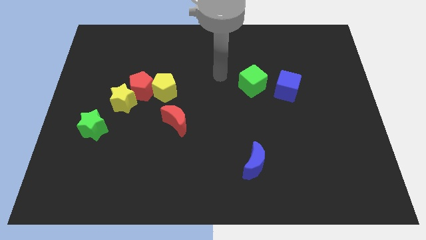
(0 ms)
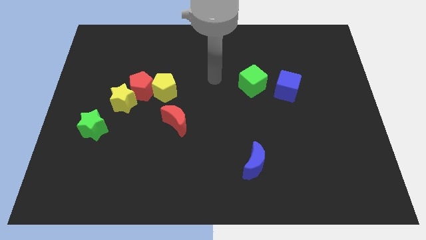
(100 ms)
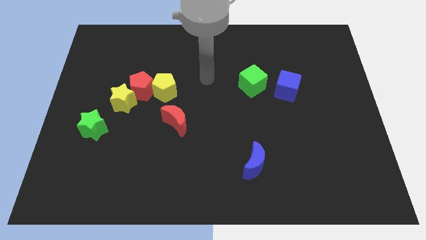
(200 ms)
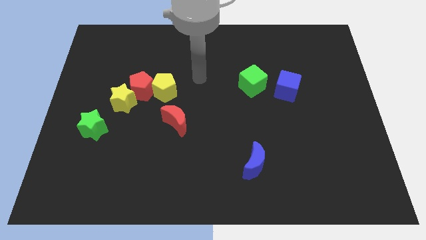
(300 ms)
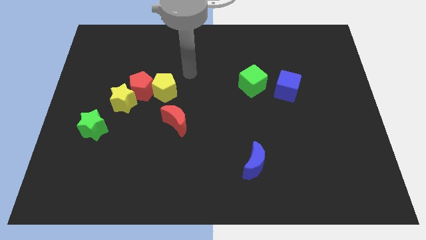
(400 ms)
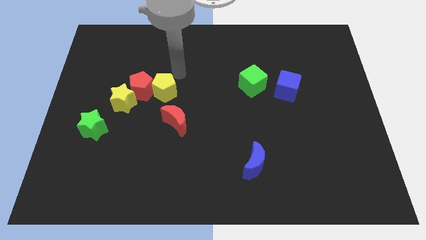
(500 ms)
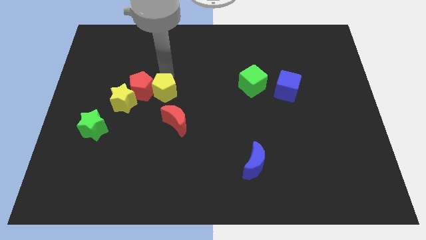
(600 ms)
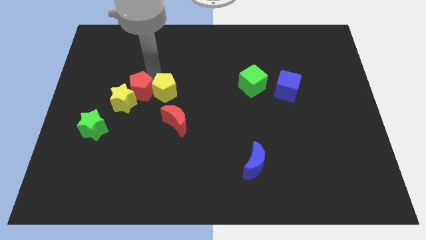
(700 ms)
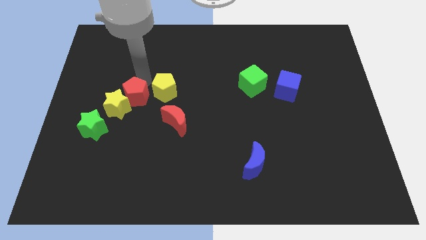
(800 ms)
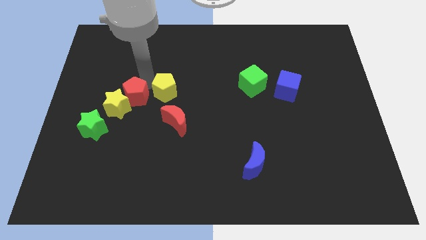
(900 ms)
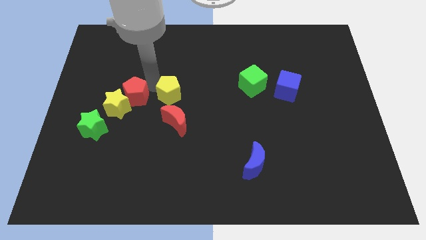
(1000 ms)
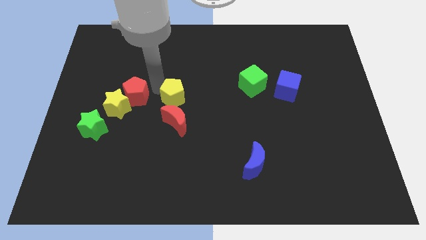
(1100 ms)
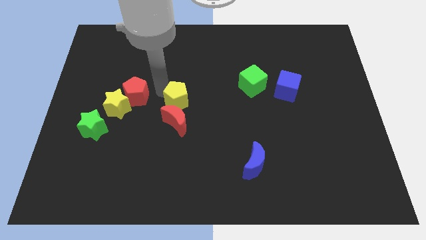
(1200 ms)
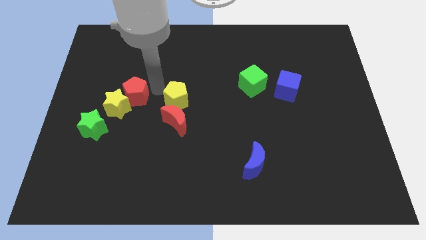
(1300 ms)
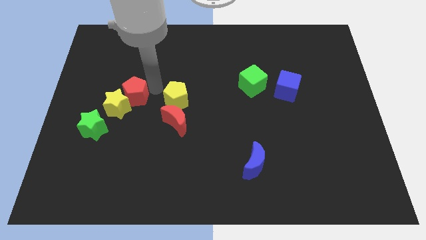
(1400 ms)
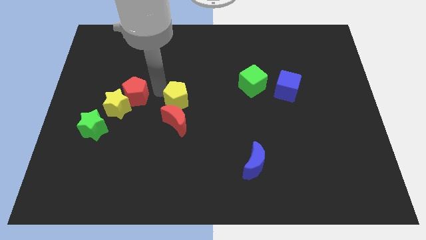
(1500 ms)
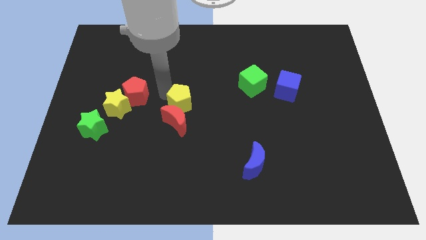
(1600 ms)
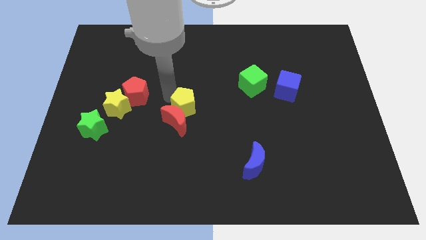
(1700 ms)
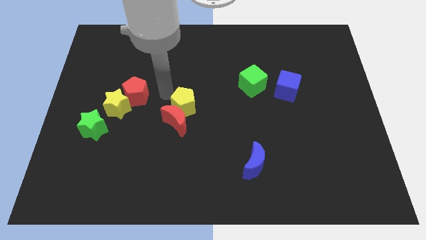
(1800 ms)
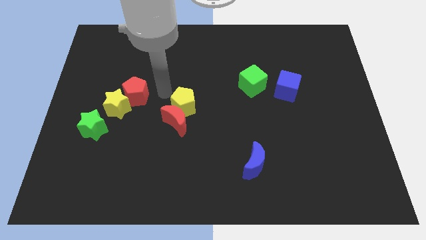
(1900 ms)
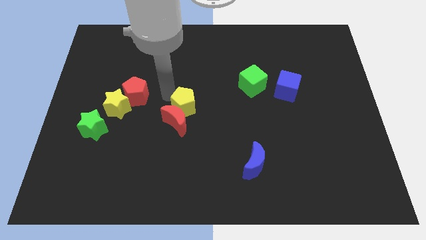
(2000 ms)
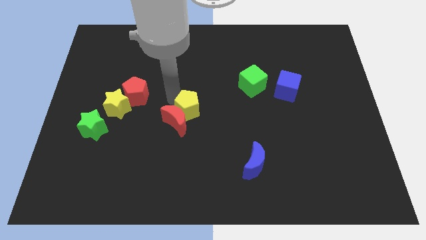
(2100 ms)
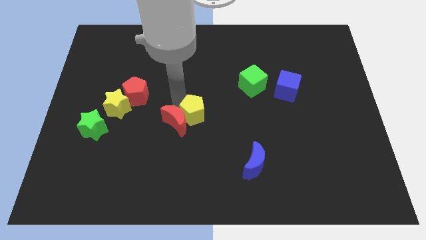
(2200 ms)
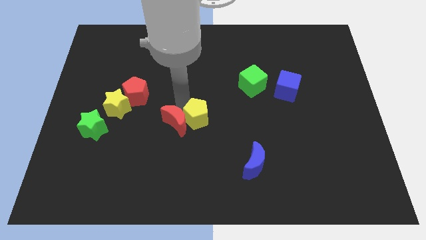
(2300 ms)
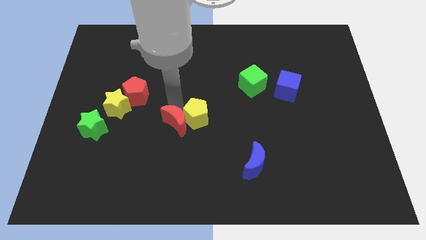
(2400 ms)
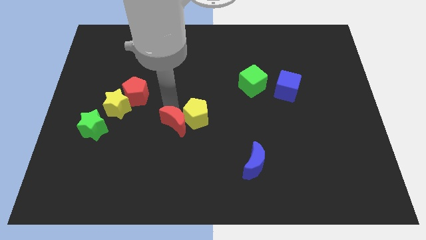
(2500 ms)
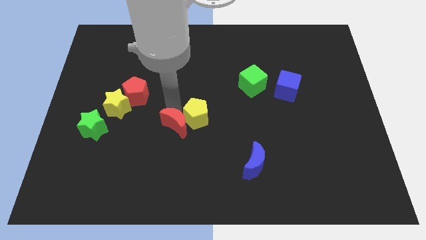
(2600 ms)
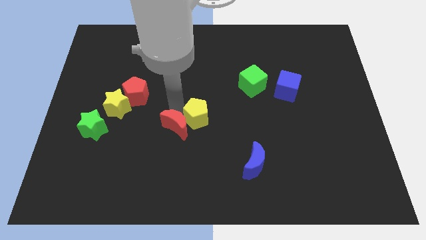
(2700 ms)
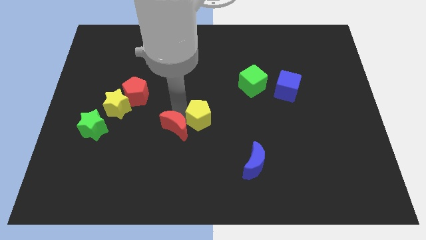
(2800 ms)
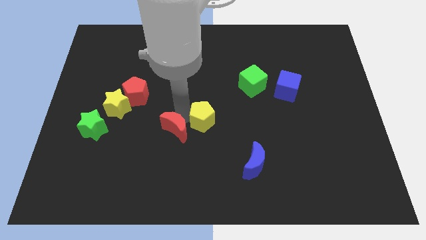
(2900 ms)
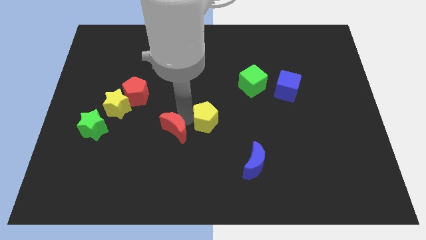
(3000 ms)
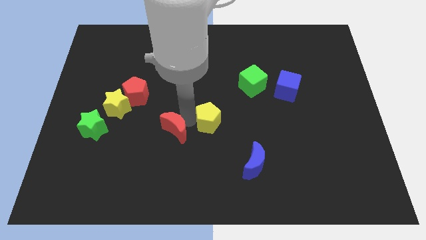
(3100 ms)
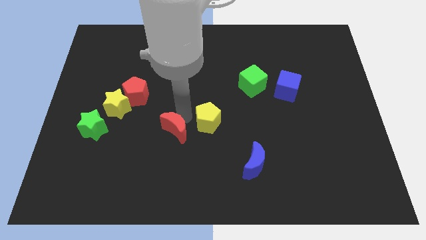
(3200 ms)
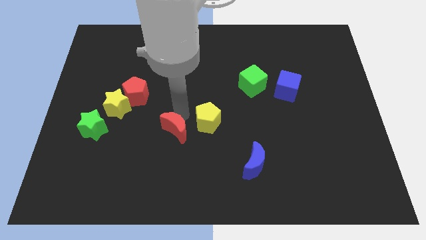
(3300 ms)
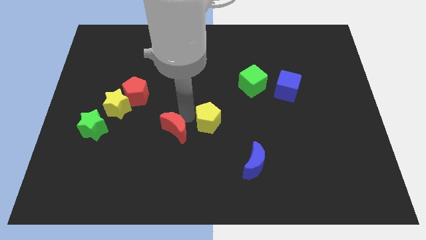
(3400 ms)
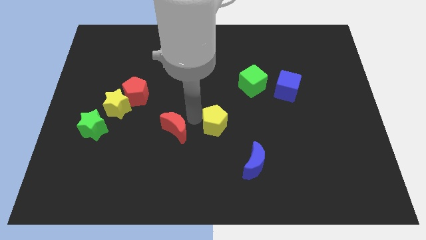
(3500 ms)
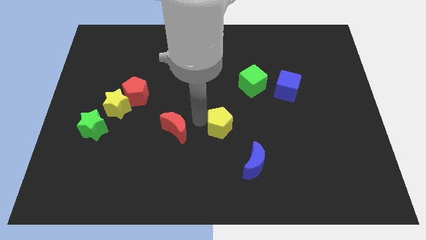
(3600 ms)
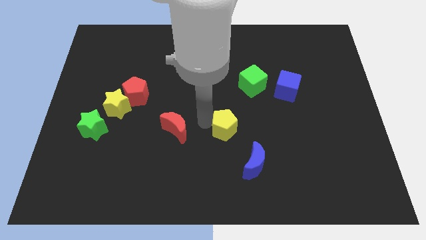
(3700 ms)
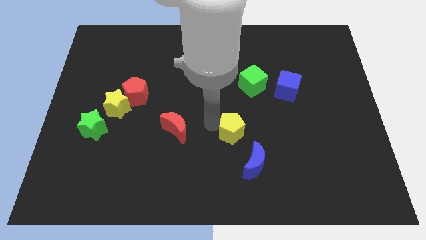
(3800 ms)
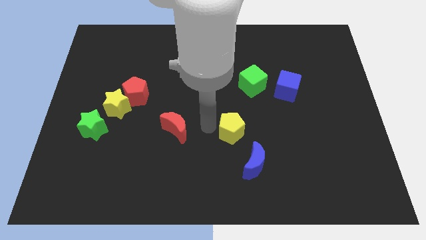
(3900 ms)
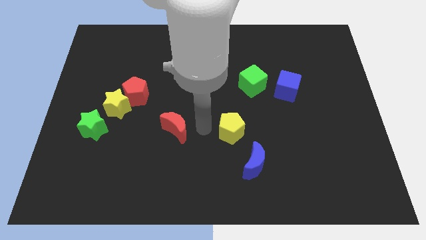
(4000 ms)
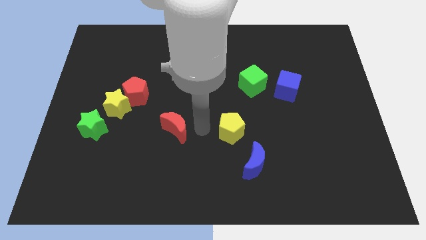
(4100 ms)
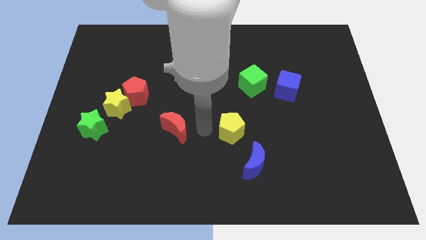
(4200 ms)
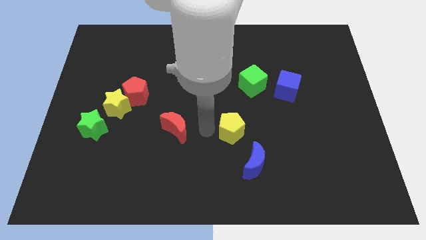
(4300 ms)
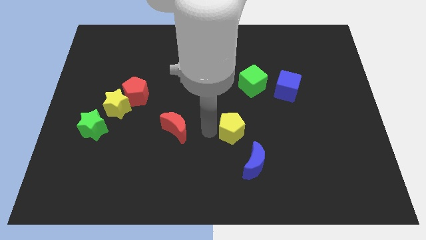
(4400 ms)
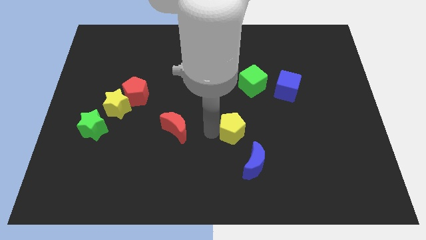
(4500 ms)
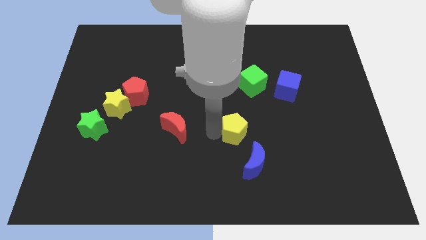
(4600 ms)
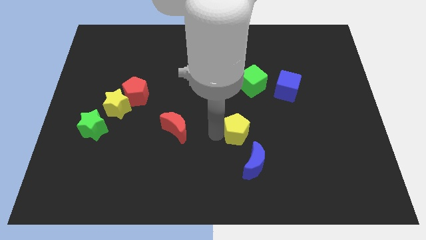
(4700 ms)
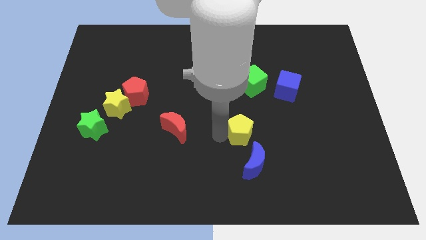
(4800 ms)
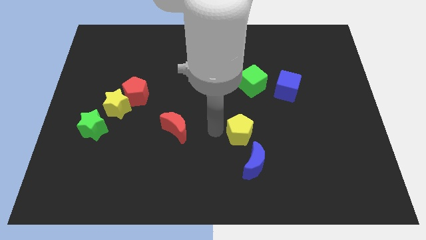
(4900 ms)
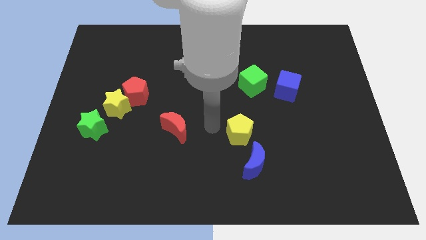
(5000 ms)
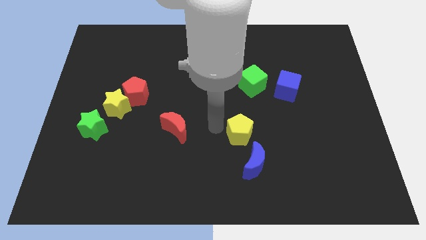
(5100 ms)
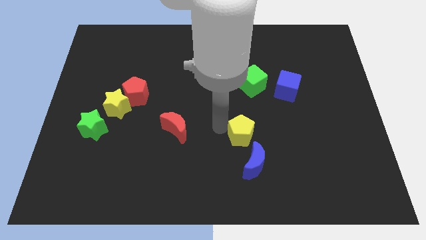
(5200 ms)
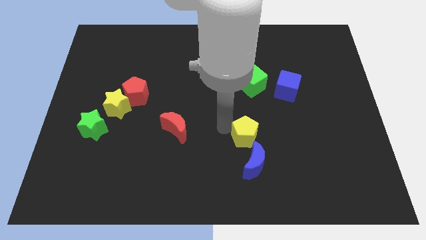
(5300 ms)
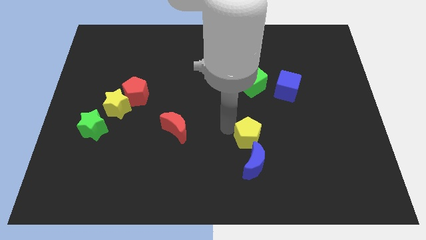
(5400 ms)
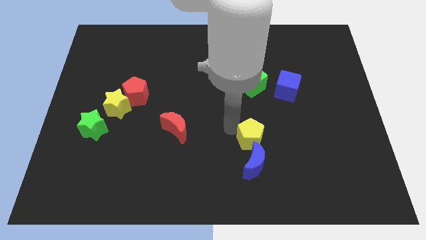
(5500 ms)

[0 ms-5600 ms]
move the yellow pentagon diagonally up and to the right of the blue moon

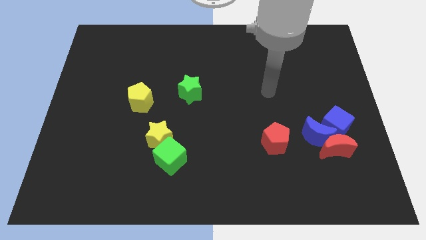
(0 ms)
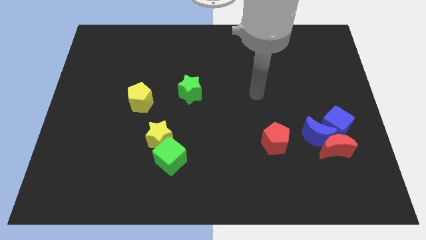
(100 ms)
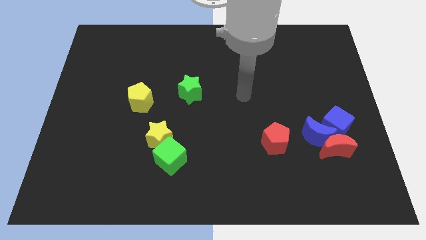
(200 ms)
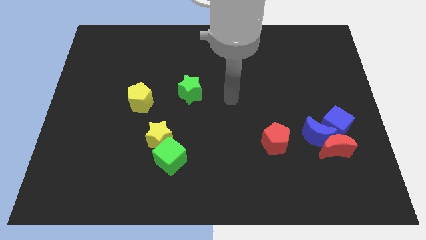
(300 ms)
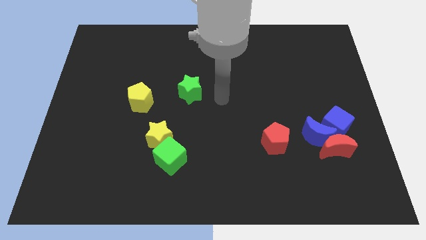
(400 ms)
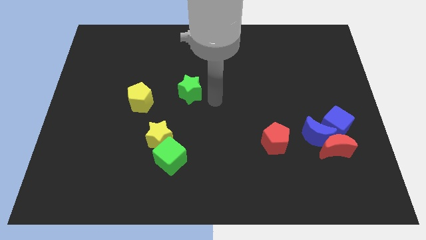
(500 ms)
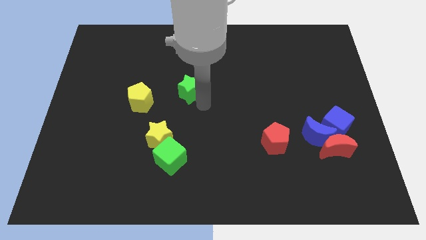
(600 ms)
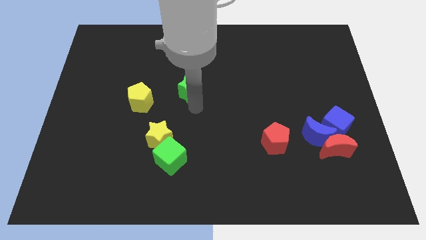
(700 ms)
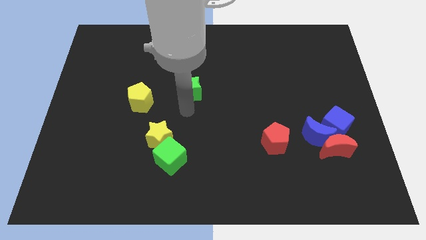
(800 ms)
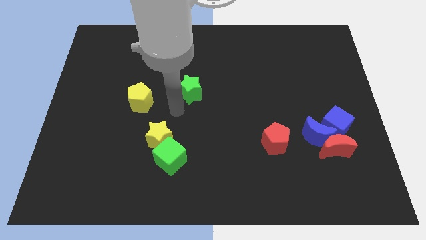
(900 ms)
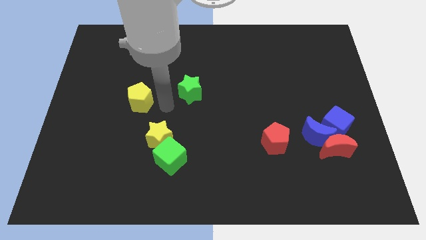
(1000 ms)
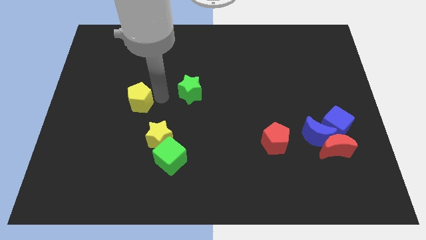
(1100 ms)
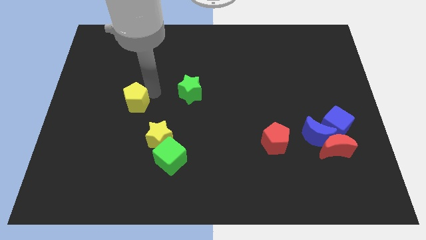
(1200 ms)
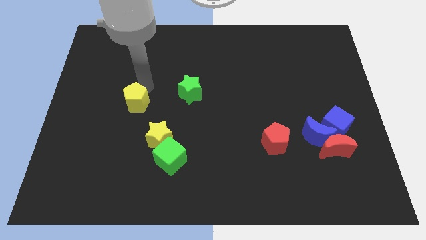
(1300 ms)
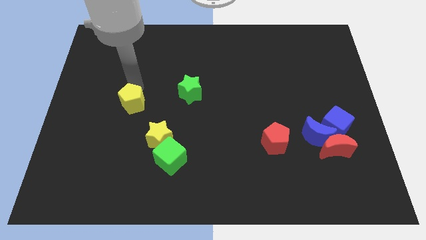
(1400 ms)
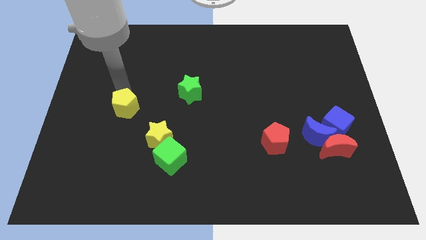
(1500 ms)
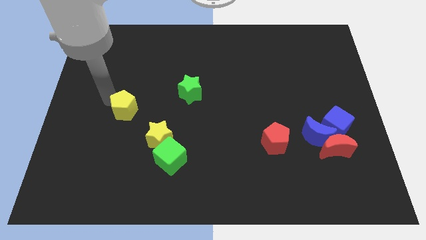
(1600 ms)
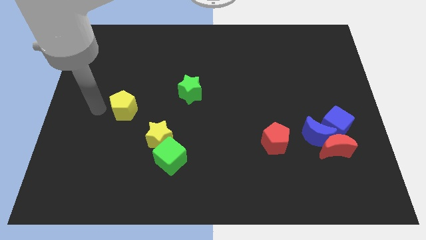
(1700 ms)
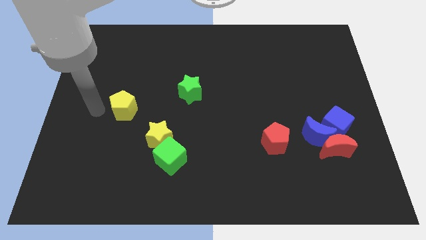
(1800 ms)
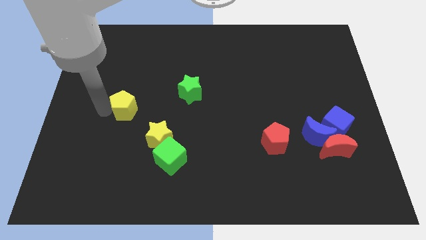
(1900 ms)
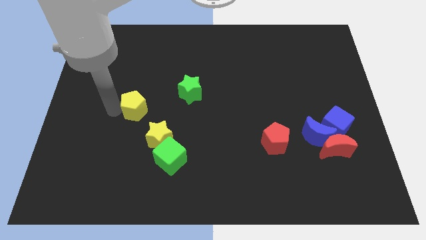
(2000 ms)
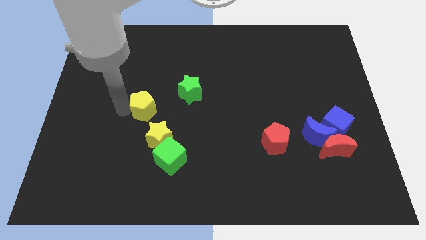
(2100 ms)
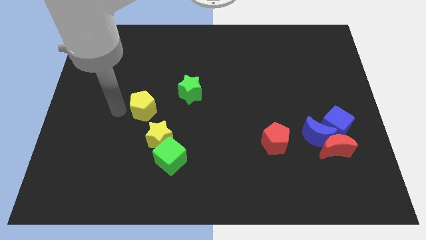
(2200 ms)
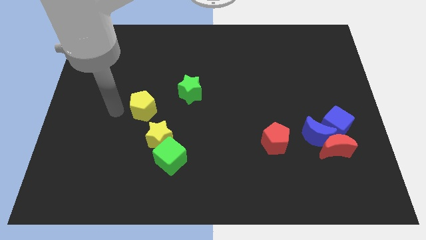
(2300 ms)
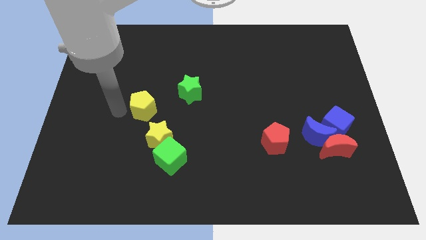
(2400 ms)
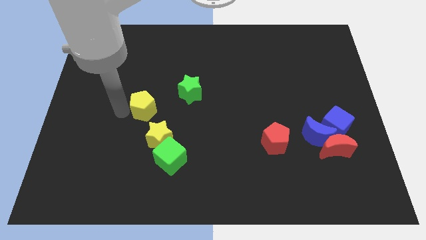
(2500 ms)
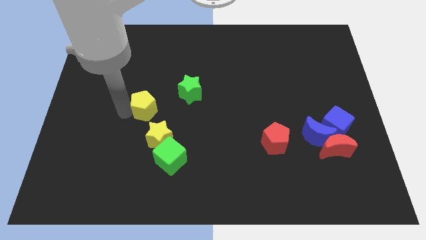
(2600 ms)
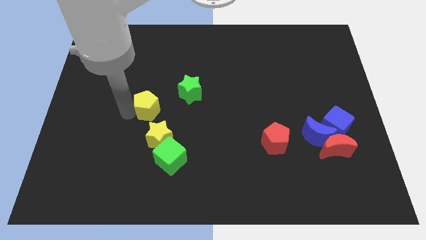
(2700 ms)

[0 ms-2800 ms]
put the yellow pentagon to the bottom left side of the green star
